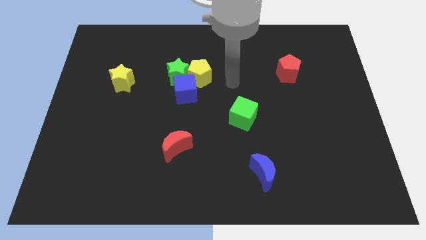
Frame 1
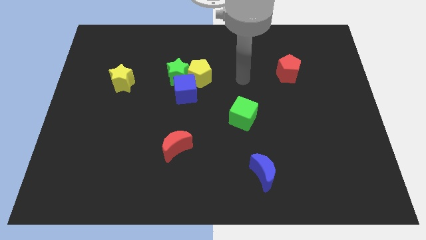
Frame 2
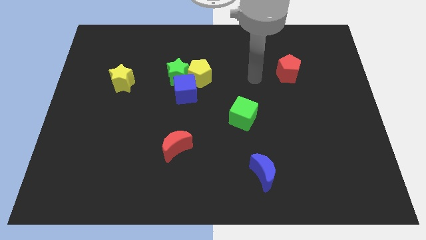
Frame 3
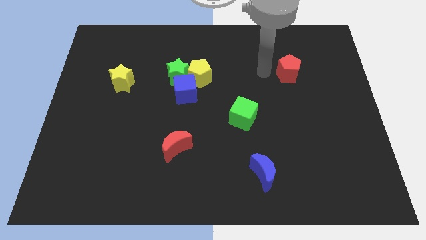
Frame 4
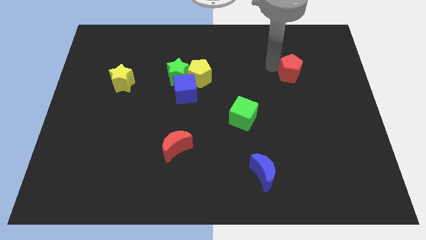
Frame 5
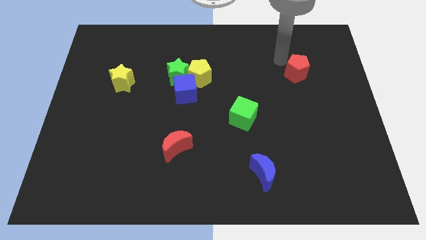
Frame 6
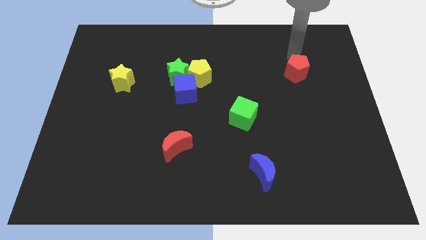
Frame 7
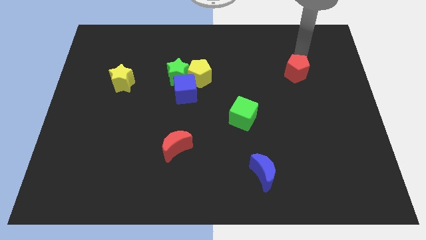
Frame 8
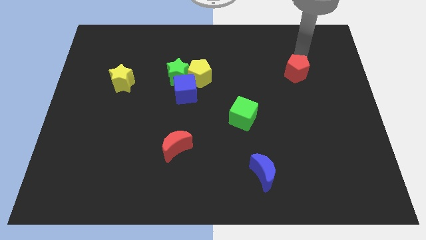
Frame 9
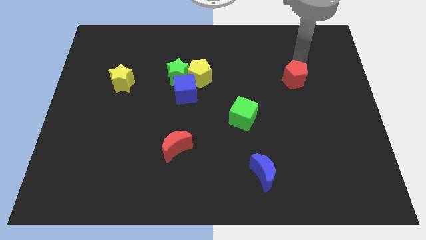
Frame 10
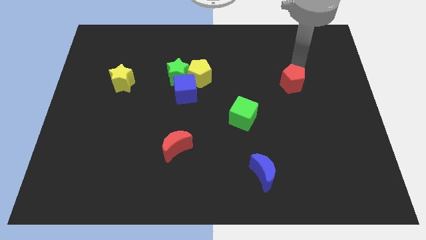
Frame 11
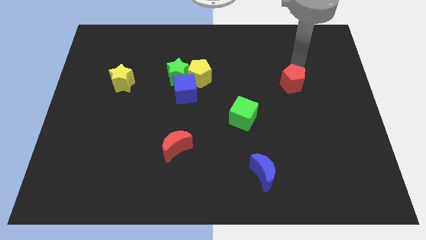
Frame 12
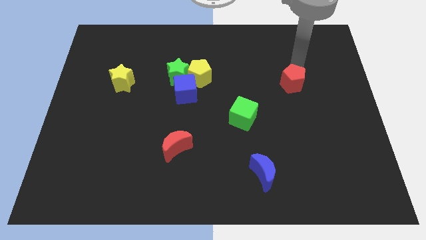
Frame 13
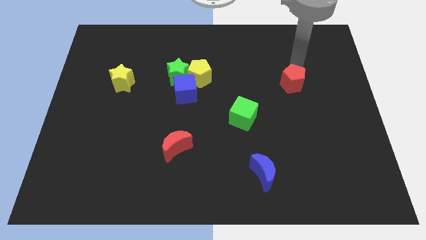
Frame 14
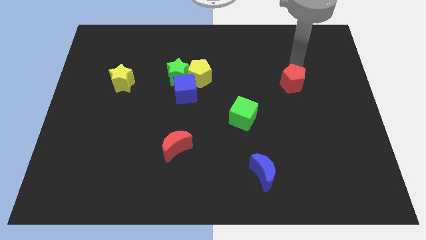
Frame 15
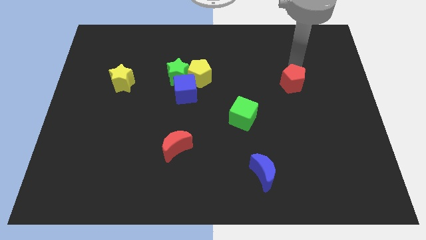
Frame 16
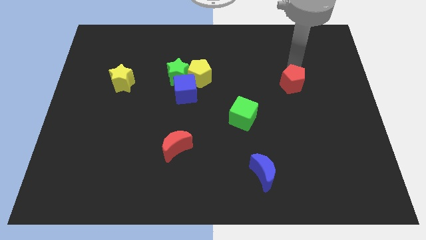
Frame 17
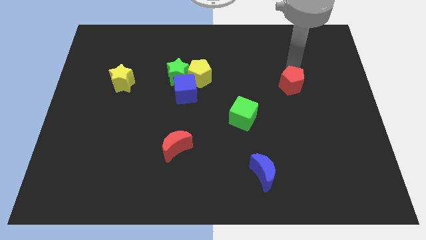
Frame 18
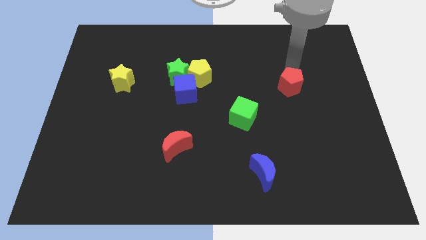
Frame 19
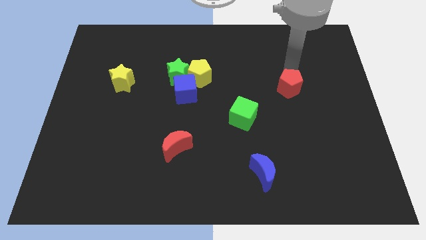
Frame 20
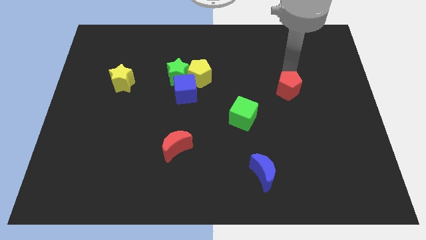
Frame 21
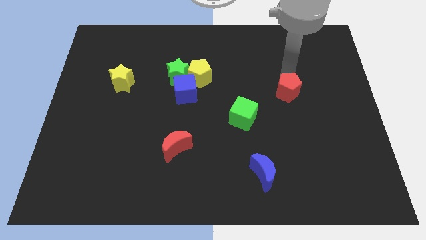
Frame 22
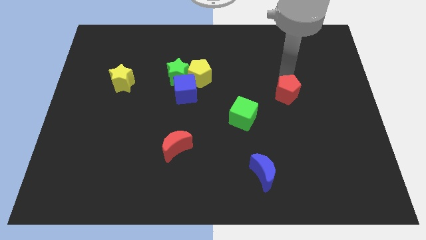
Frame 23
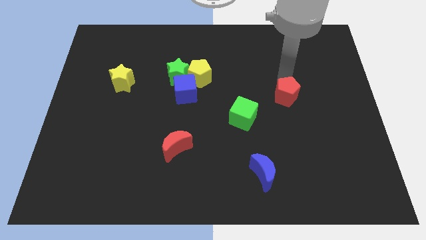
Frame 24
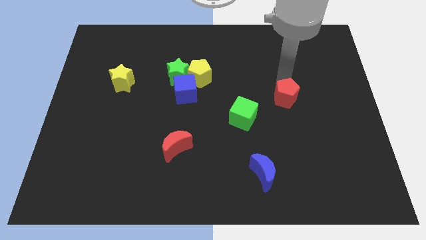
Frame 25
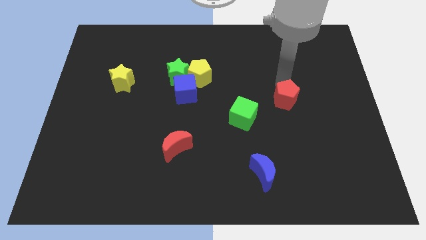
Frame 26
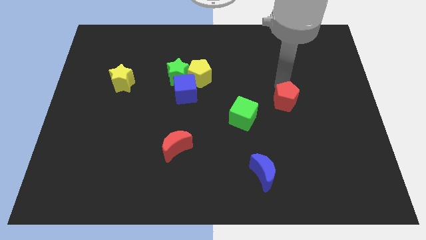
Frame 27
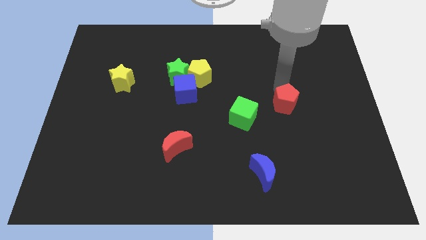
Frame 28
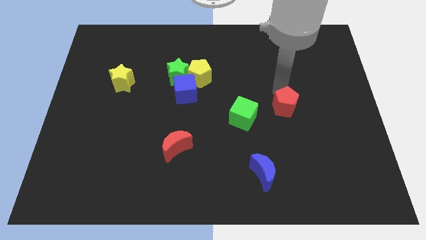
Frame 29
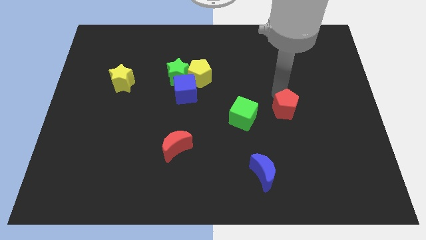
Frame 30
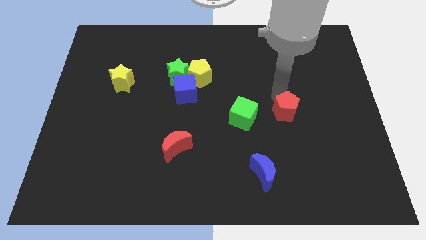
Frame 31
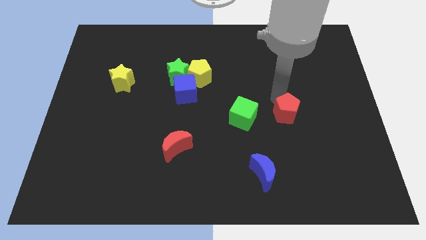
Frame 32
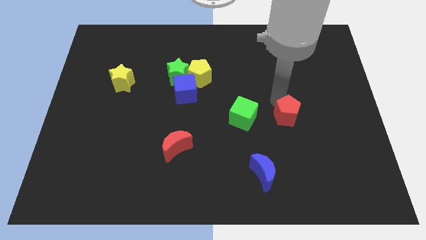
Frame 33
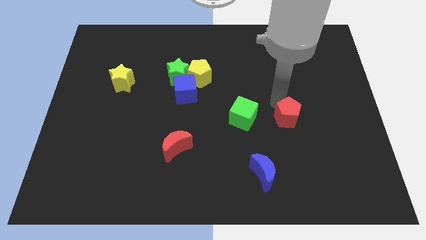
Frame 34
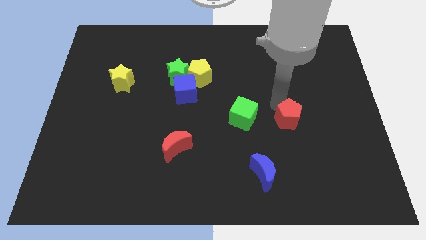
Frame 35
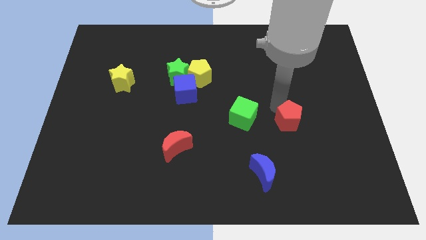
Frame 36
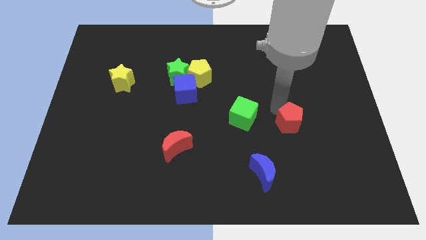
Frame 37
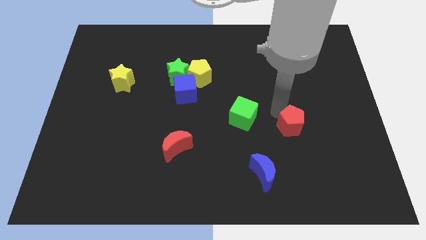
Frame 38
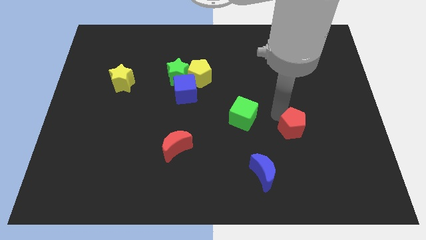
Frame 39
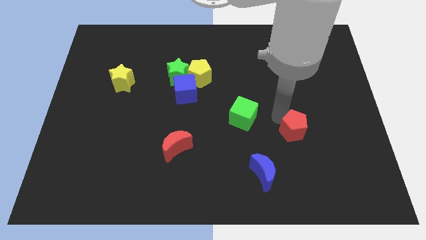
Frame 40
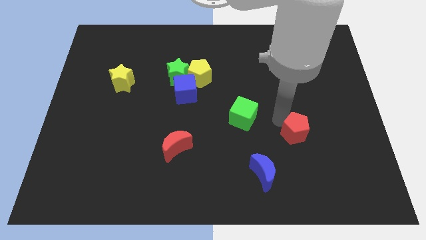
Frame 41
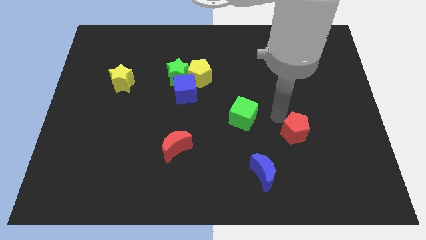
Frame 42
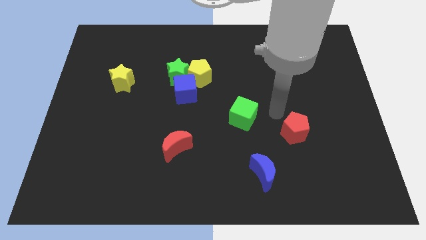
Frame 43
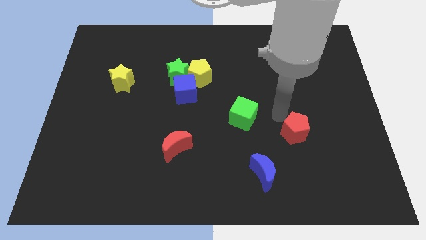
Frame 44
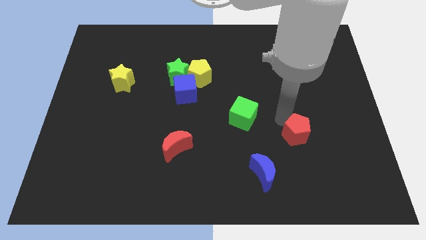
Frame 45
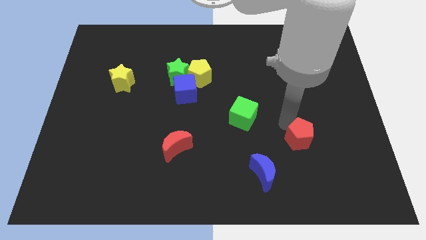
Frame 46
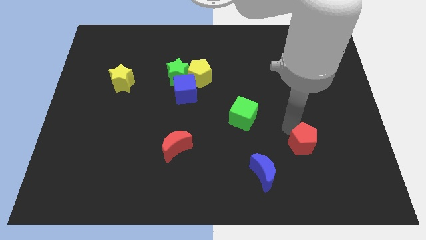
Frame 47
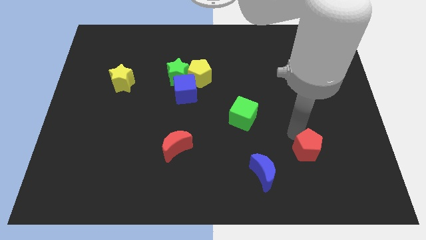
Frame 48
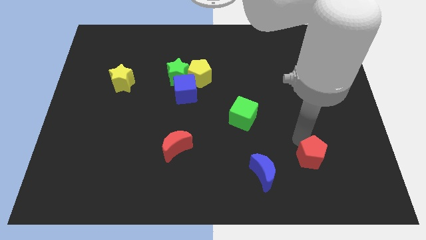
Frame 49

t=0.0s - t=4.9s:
move the red pentagon to the right side of the blue moon

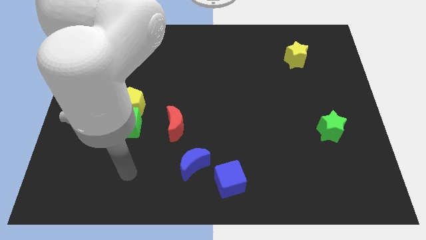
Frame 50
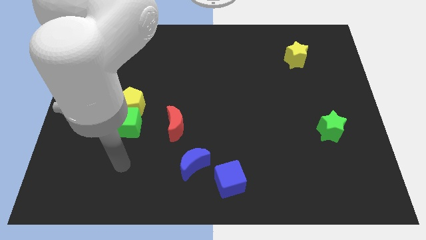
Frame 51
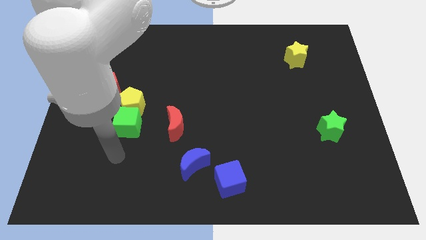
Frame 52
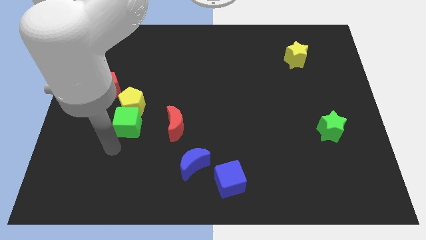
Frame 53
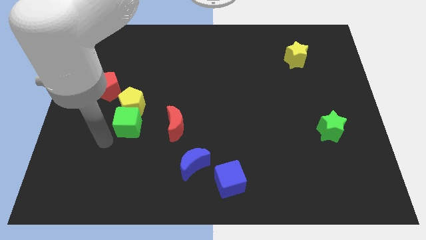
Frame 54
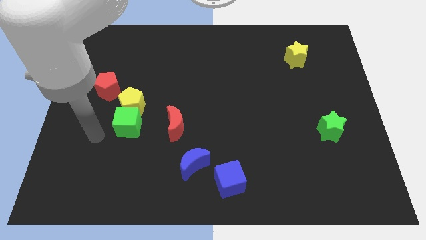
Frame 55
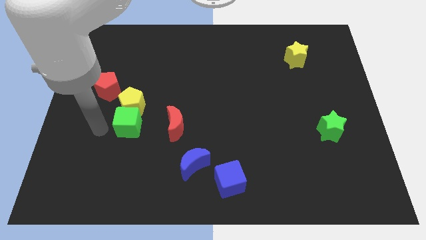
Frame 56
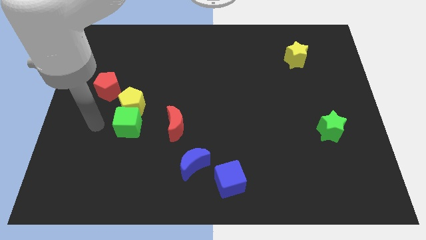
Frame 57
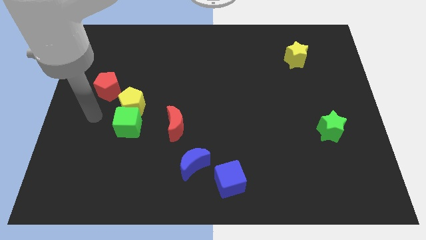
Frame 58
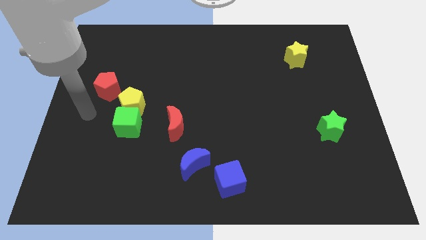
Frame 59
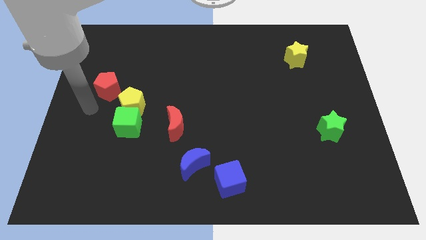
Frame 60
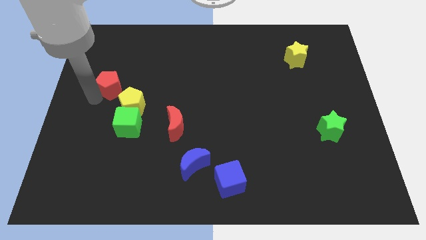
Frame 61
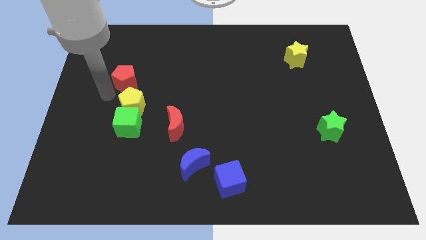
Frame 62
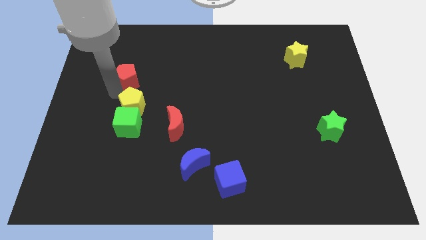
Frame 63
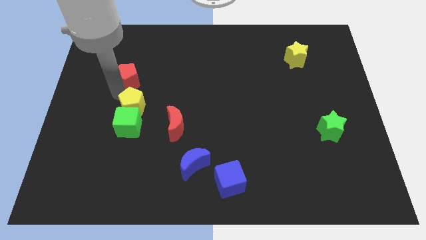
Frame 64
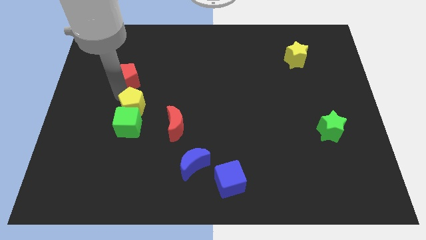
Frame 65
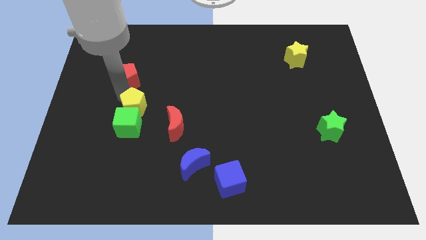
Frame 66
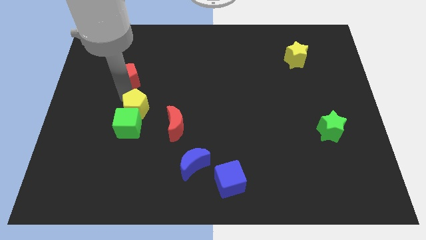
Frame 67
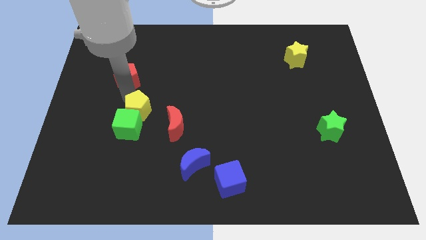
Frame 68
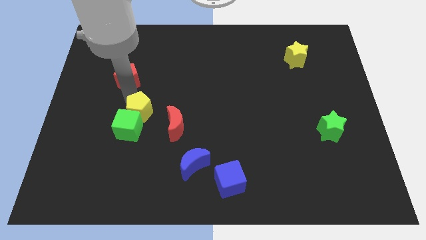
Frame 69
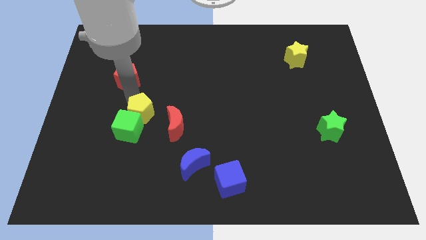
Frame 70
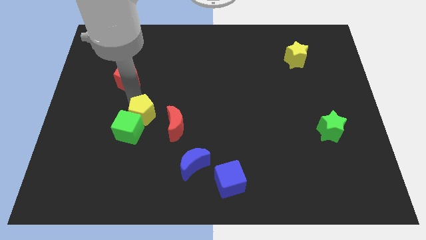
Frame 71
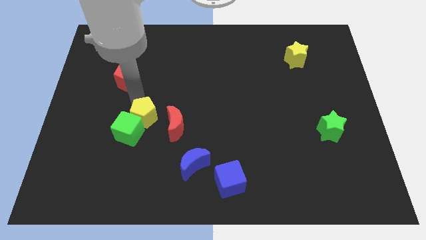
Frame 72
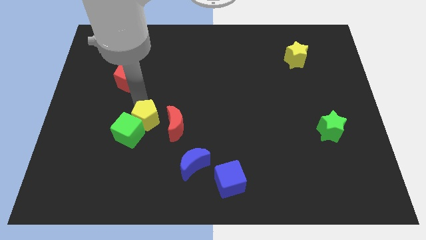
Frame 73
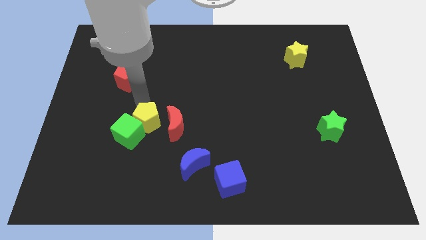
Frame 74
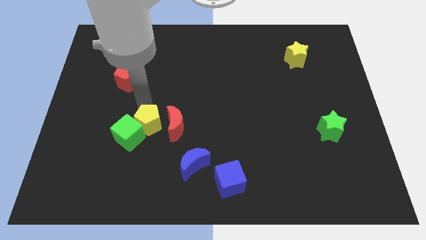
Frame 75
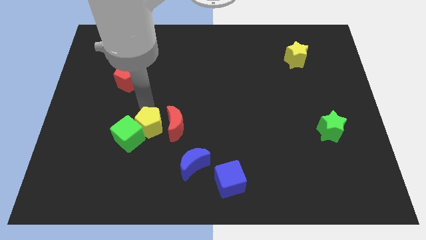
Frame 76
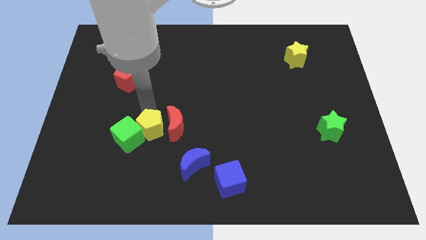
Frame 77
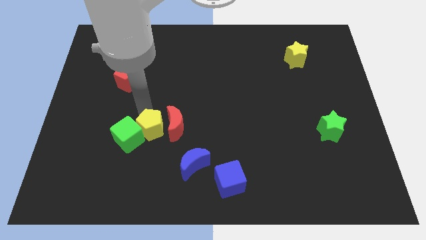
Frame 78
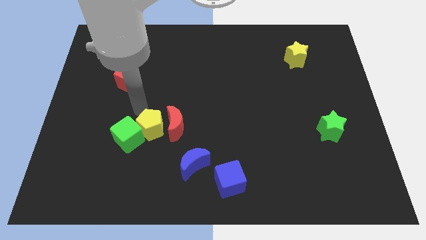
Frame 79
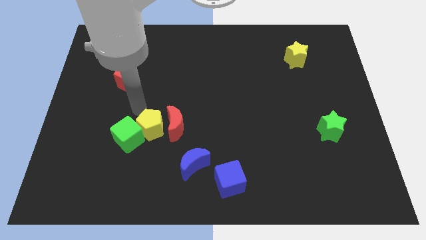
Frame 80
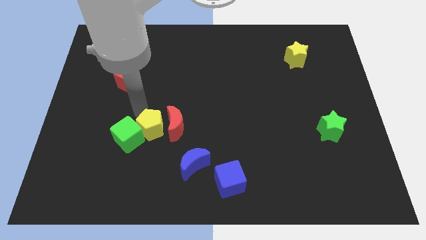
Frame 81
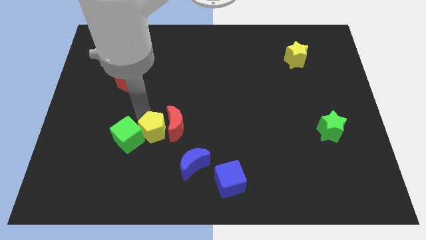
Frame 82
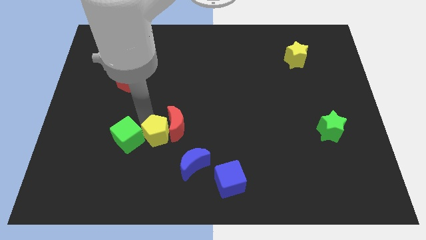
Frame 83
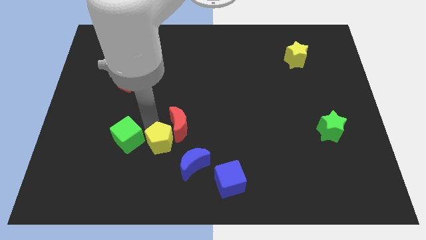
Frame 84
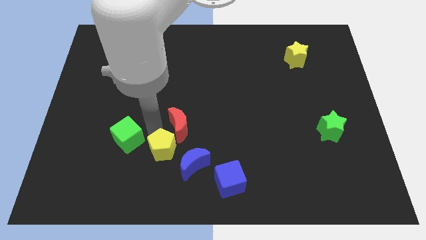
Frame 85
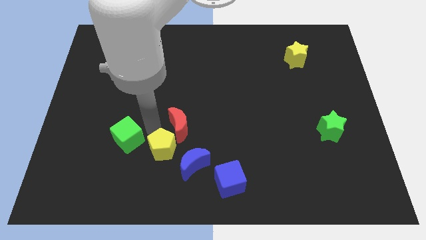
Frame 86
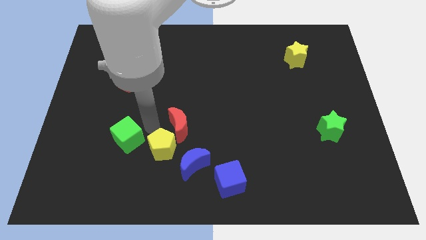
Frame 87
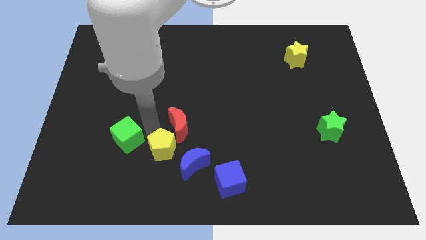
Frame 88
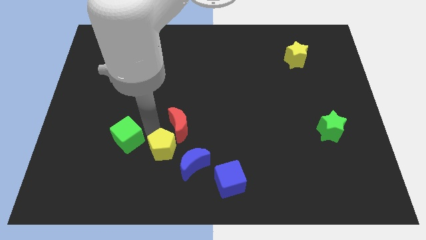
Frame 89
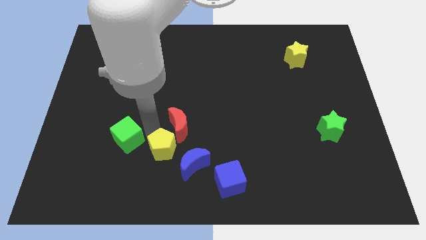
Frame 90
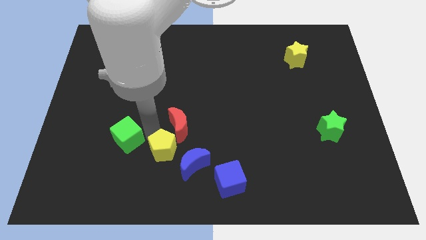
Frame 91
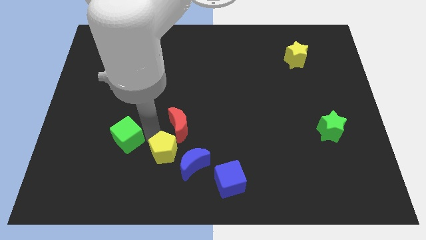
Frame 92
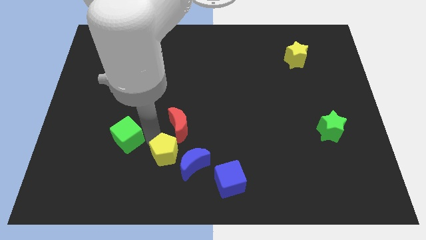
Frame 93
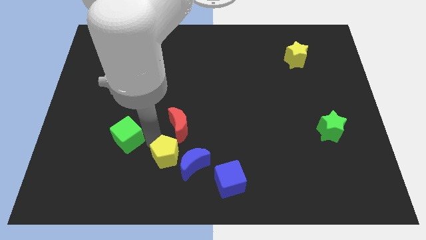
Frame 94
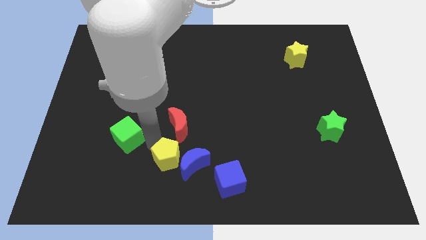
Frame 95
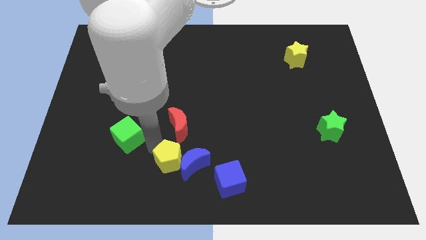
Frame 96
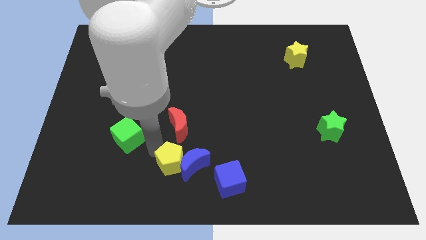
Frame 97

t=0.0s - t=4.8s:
move the yellow pentagon left of the blue cube
